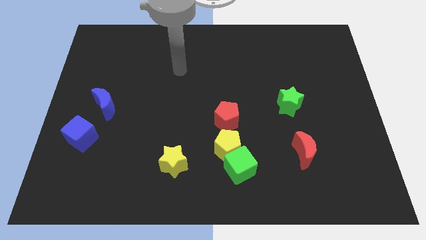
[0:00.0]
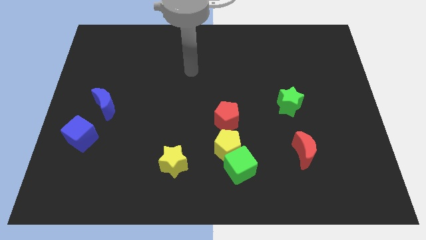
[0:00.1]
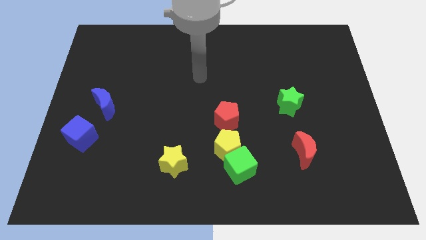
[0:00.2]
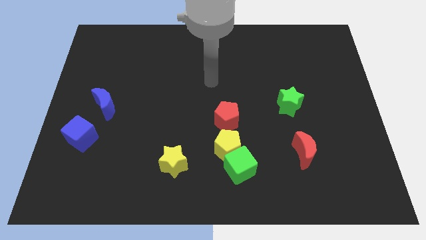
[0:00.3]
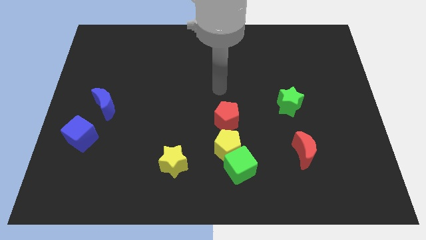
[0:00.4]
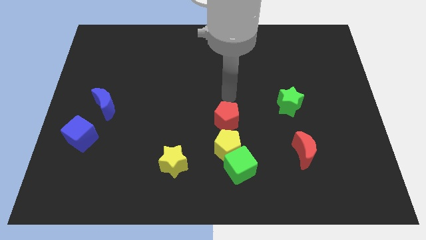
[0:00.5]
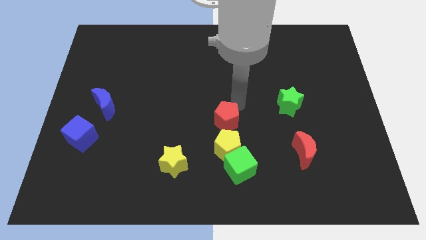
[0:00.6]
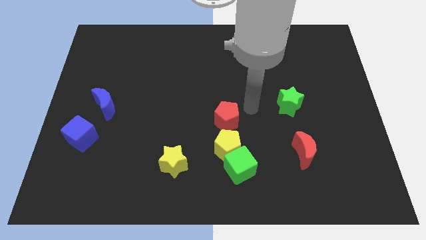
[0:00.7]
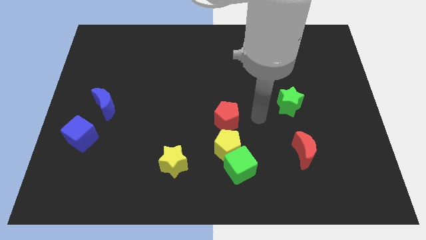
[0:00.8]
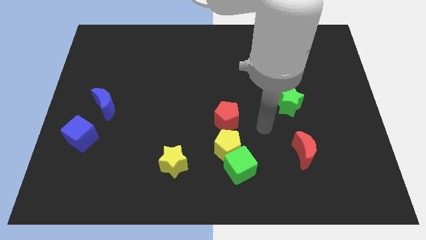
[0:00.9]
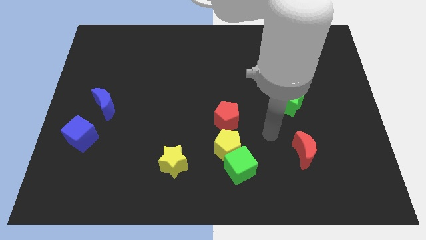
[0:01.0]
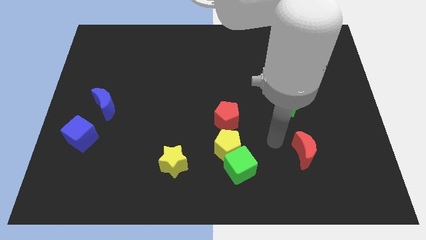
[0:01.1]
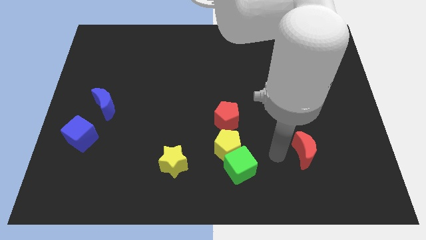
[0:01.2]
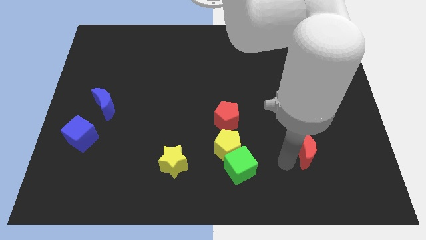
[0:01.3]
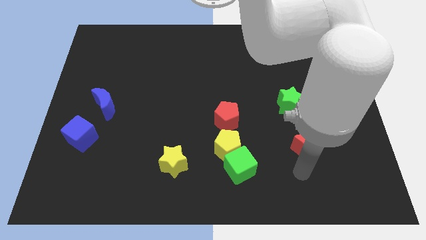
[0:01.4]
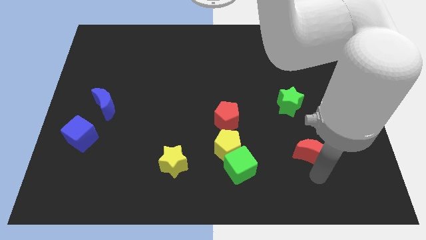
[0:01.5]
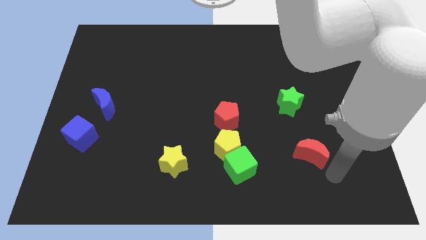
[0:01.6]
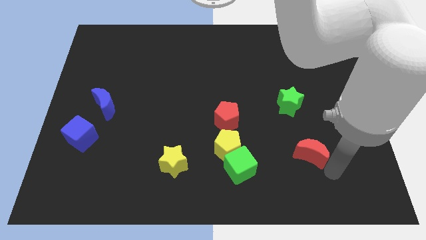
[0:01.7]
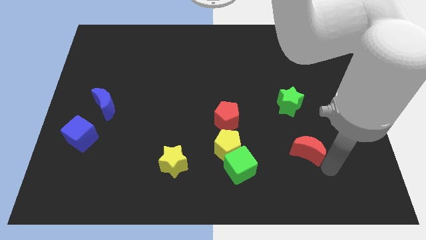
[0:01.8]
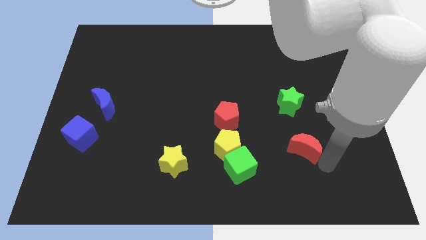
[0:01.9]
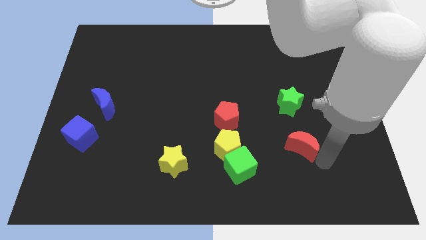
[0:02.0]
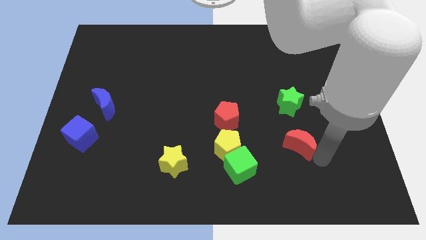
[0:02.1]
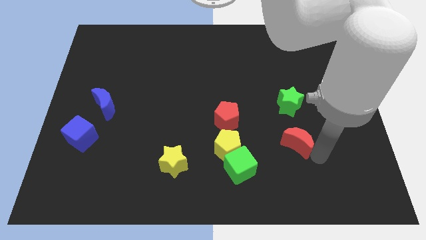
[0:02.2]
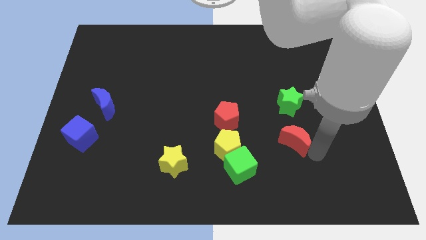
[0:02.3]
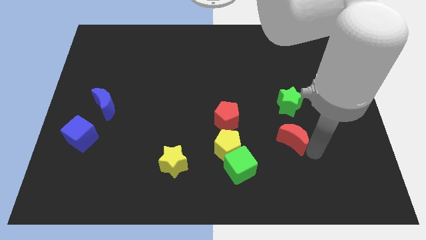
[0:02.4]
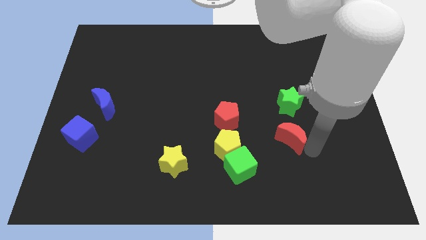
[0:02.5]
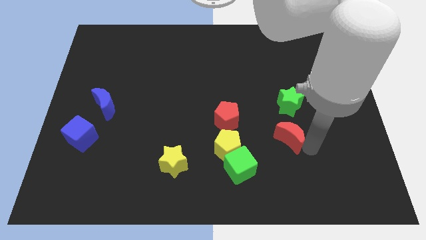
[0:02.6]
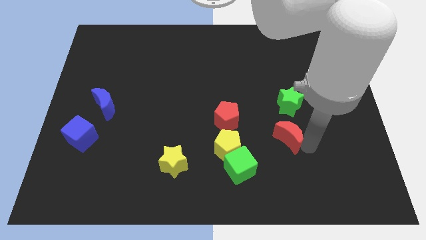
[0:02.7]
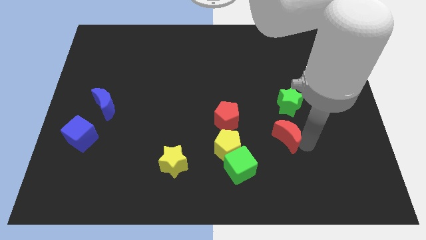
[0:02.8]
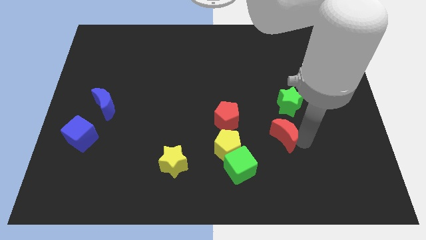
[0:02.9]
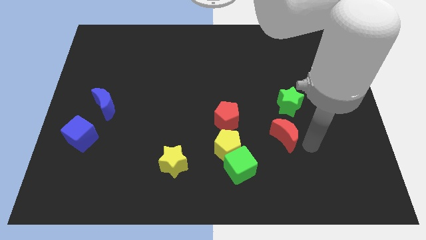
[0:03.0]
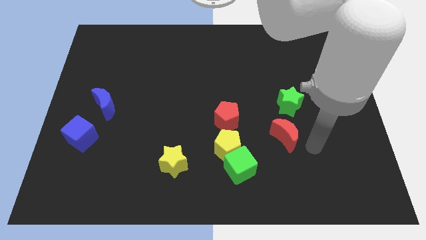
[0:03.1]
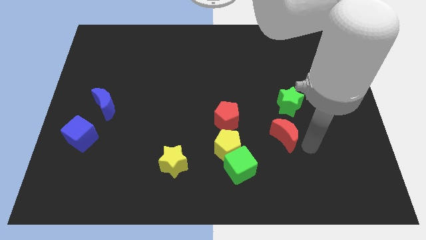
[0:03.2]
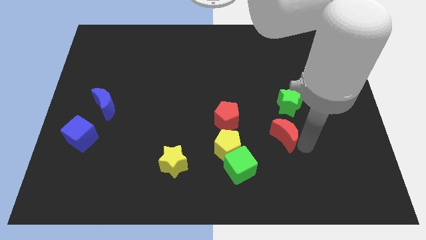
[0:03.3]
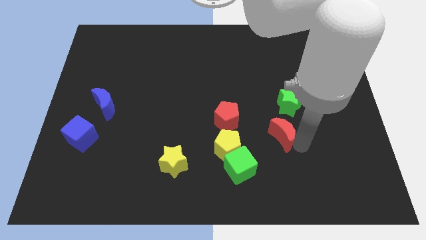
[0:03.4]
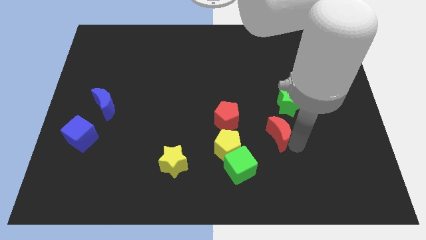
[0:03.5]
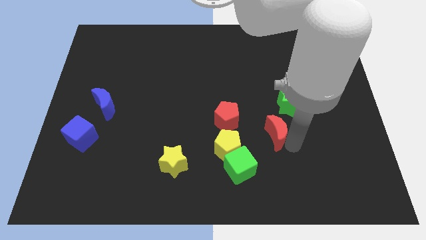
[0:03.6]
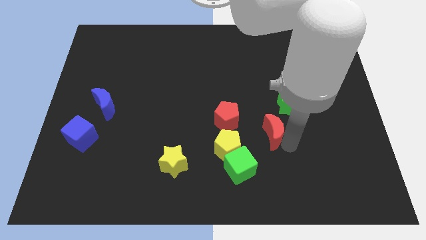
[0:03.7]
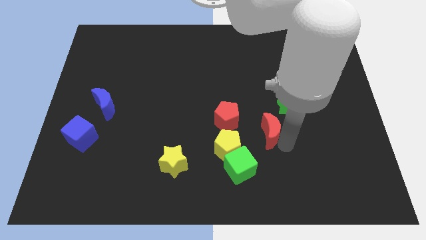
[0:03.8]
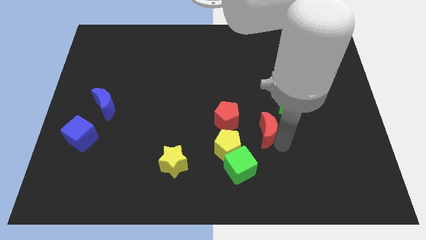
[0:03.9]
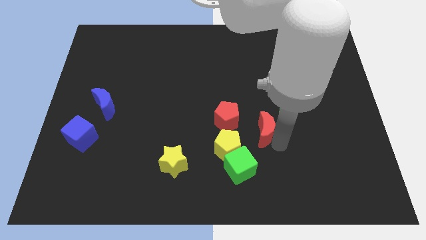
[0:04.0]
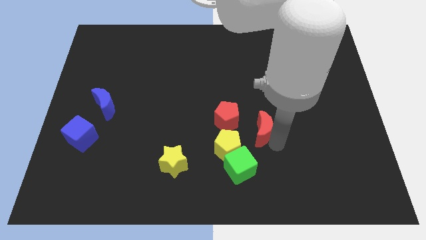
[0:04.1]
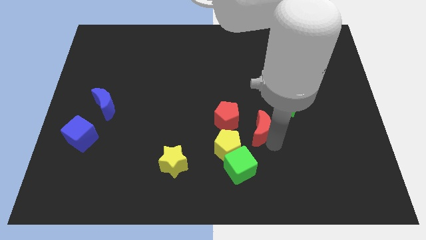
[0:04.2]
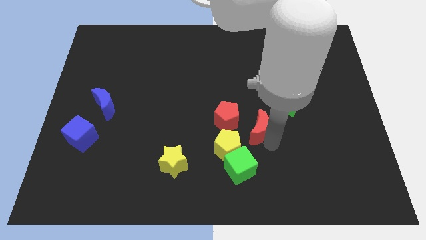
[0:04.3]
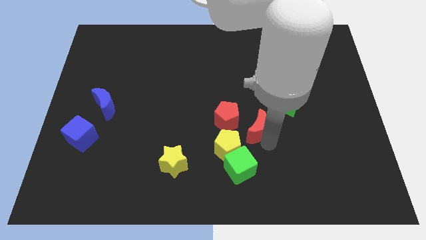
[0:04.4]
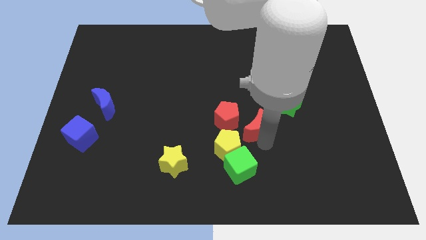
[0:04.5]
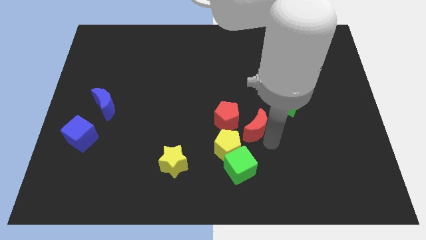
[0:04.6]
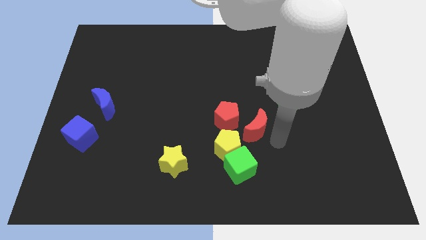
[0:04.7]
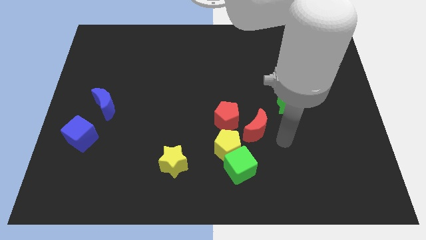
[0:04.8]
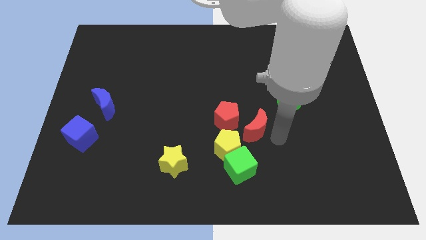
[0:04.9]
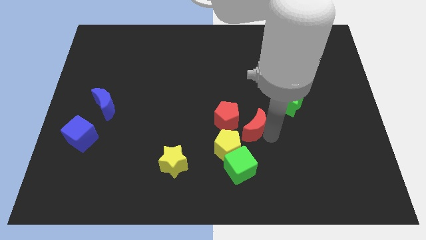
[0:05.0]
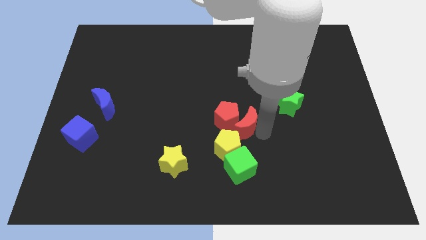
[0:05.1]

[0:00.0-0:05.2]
put the red moon to the red pentagon

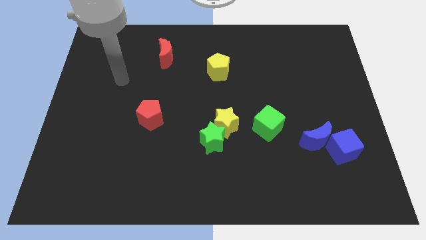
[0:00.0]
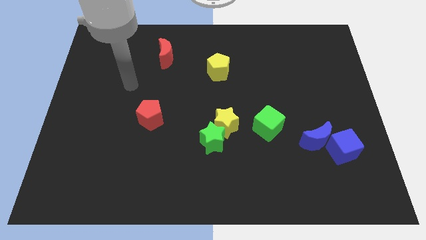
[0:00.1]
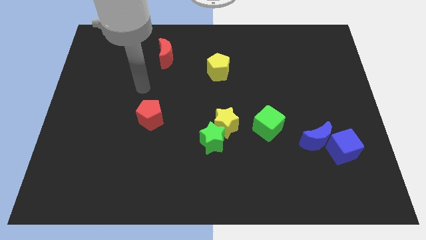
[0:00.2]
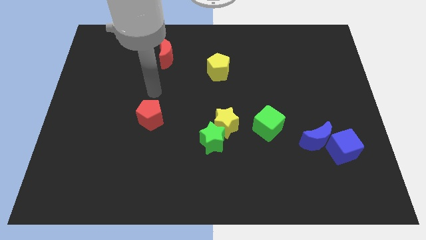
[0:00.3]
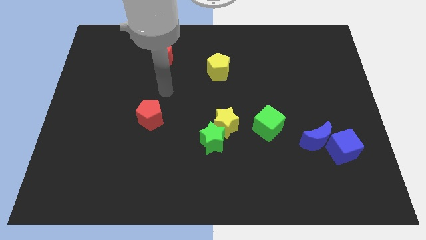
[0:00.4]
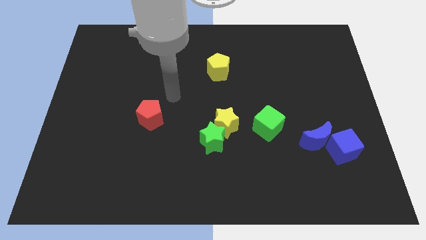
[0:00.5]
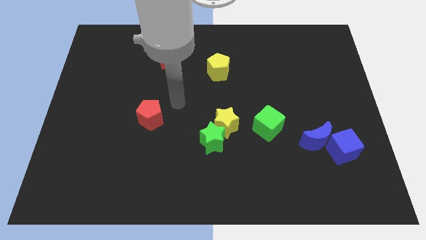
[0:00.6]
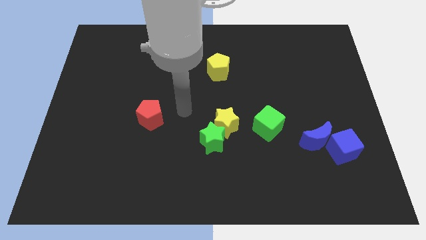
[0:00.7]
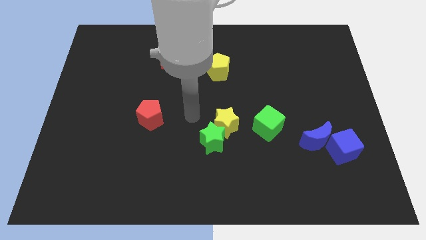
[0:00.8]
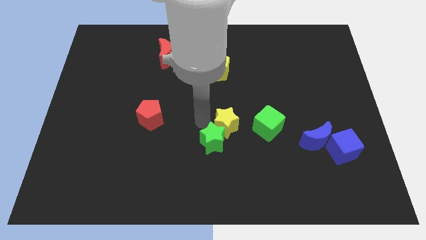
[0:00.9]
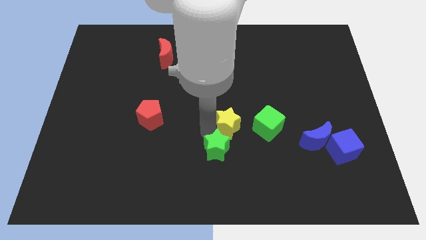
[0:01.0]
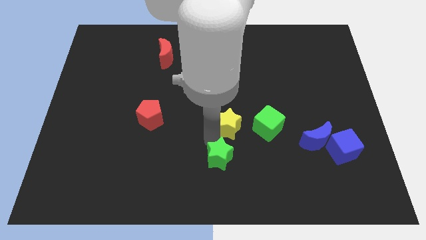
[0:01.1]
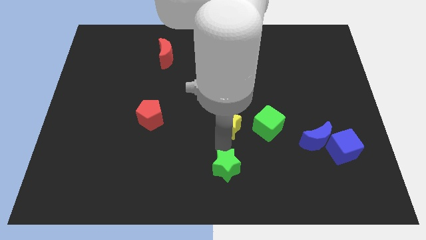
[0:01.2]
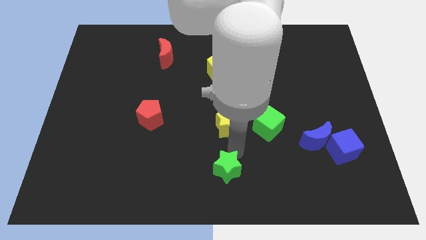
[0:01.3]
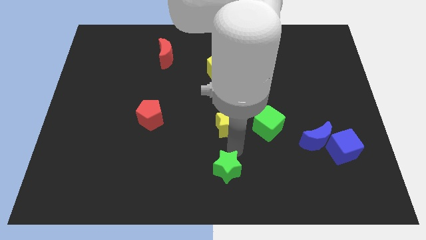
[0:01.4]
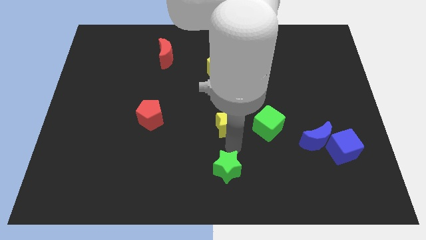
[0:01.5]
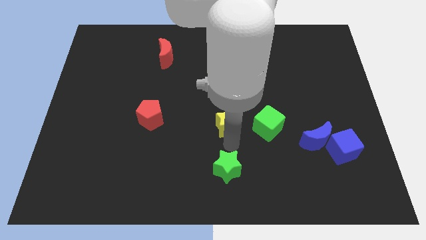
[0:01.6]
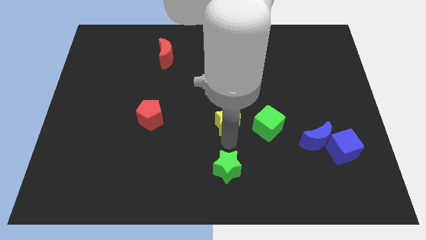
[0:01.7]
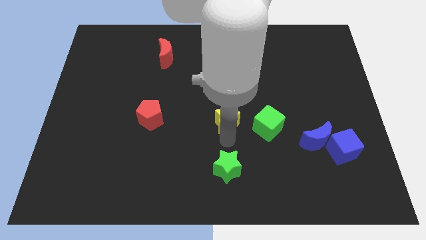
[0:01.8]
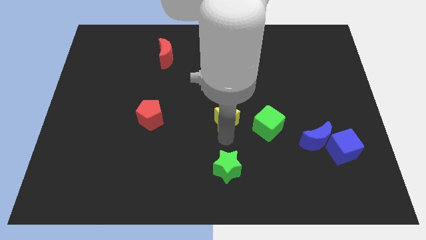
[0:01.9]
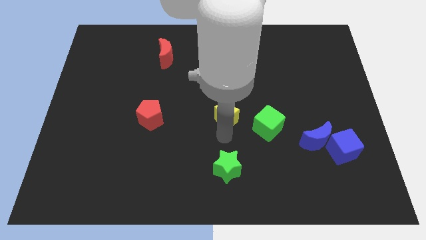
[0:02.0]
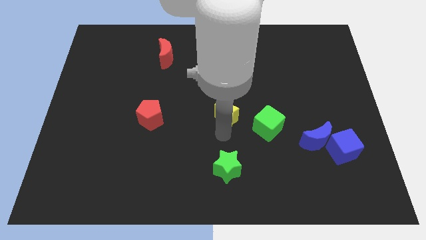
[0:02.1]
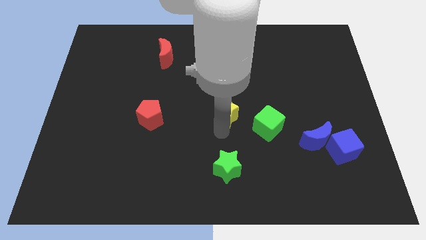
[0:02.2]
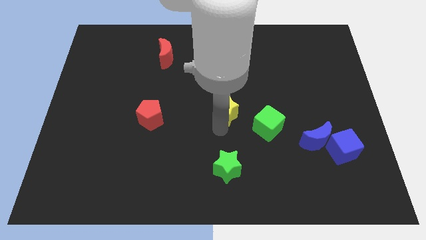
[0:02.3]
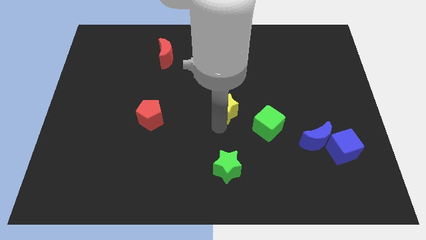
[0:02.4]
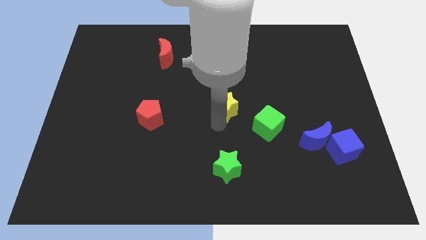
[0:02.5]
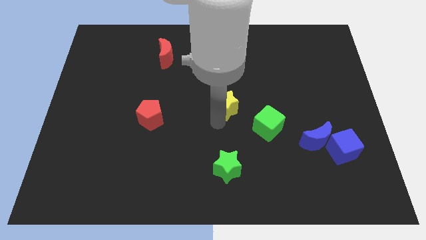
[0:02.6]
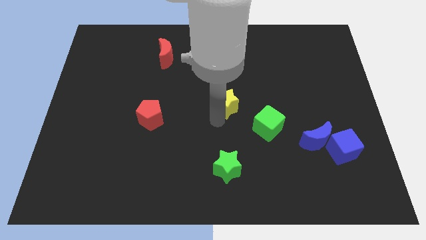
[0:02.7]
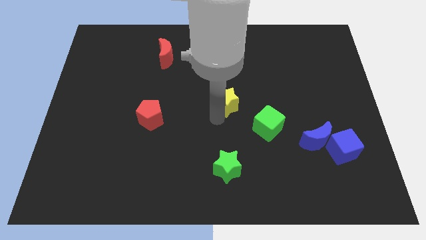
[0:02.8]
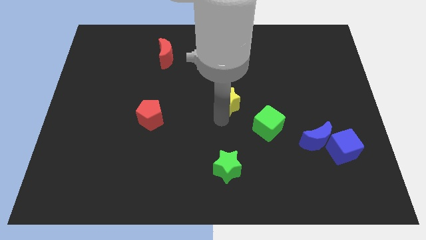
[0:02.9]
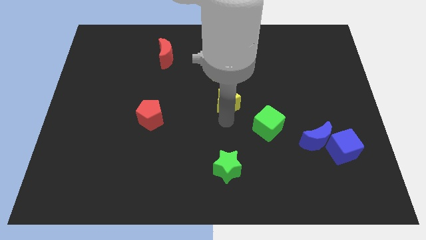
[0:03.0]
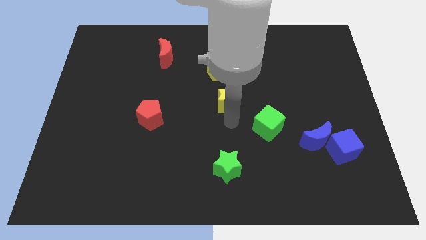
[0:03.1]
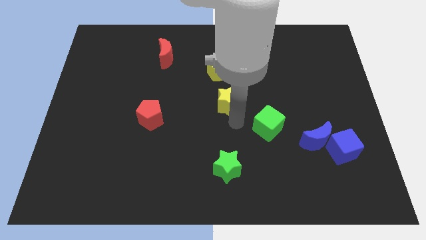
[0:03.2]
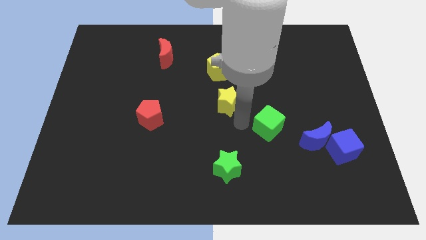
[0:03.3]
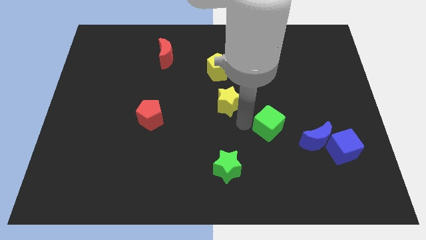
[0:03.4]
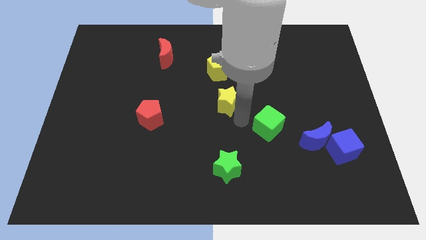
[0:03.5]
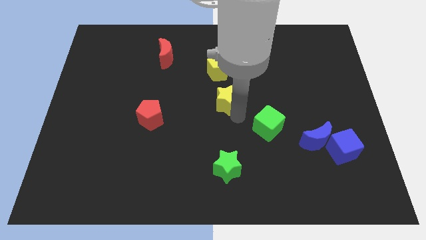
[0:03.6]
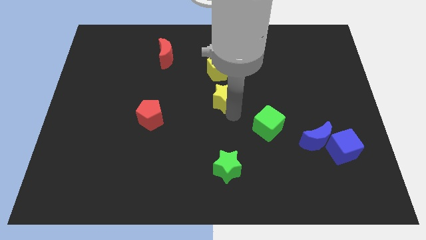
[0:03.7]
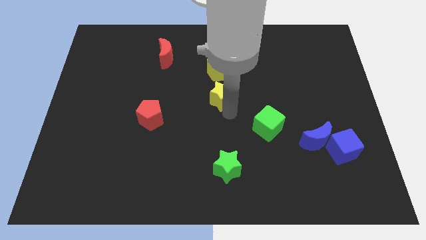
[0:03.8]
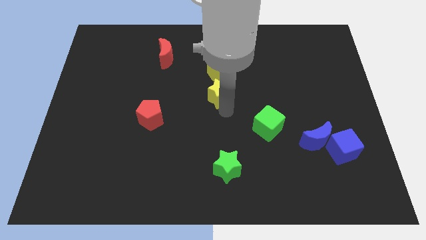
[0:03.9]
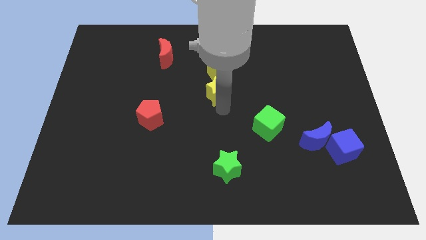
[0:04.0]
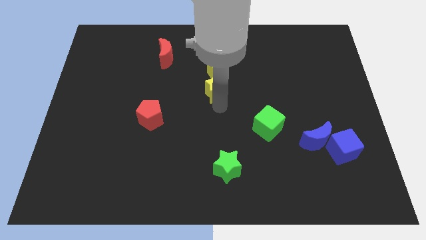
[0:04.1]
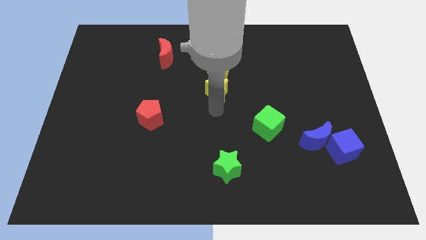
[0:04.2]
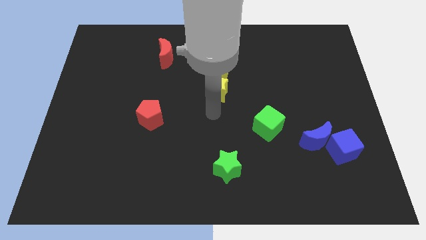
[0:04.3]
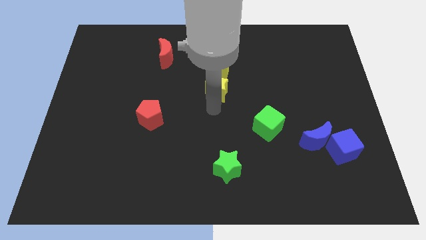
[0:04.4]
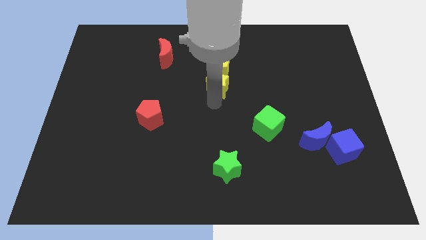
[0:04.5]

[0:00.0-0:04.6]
push the yellow star close to the yellow pentagon
